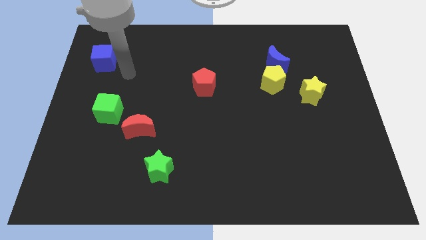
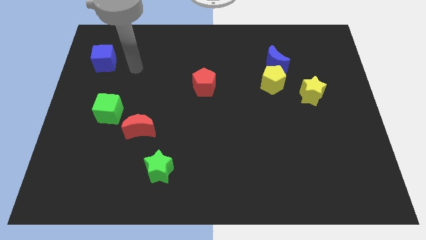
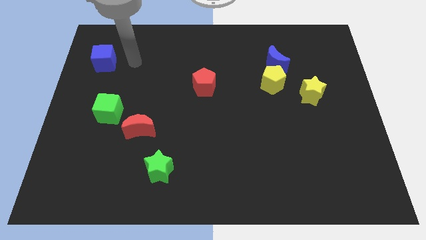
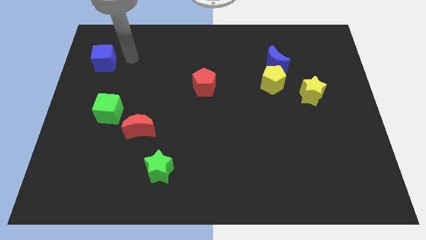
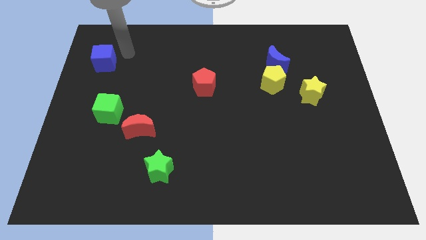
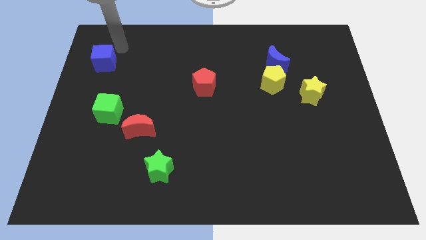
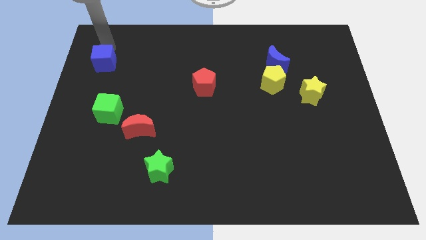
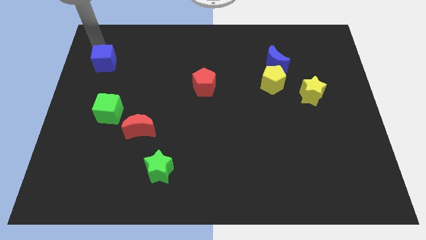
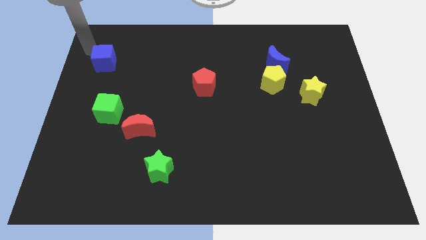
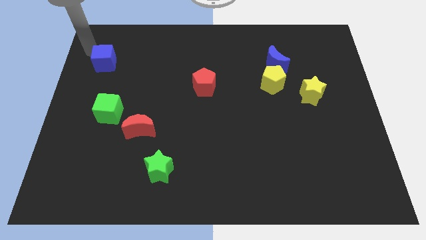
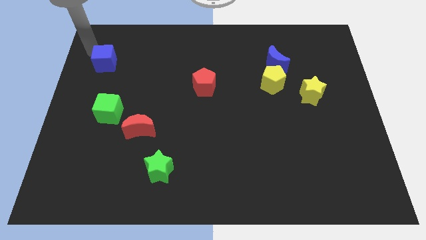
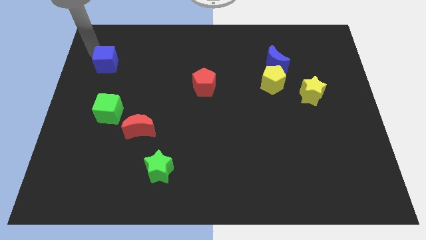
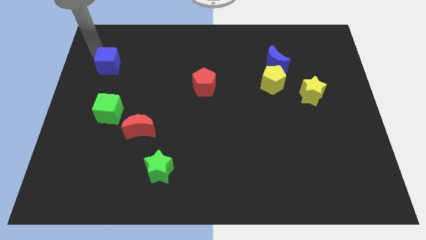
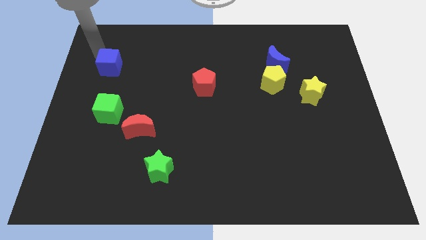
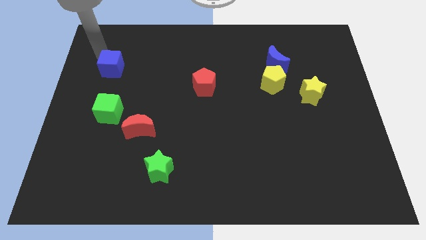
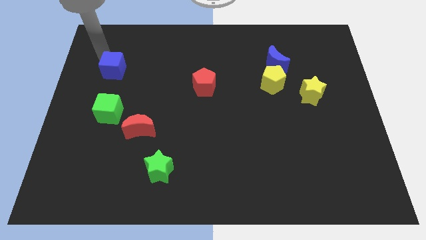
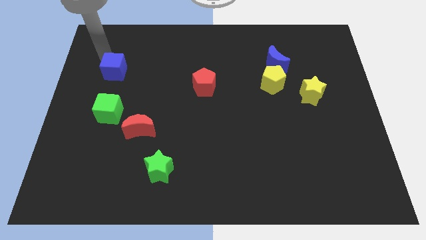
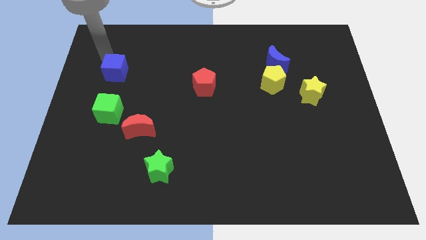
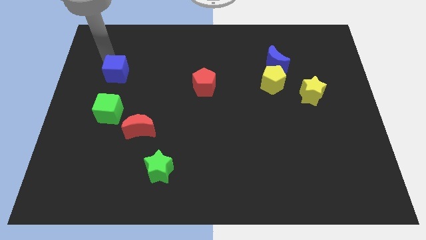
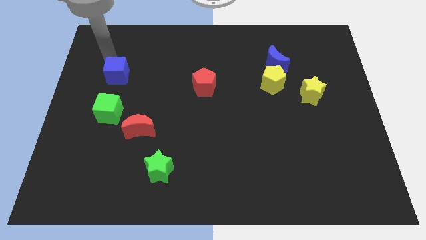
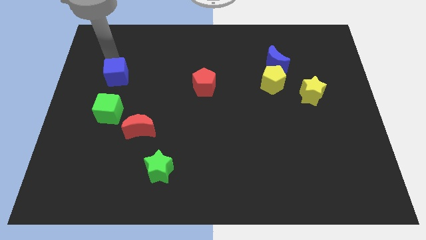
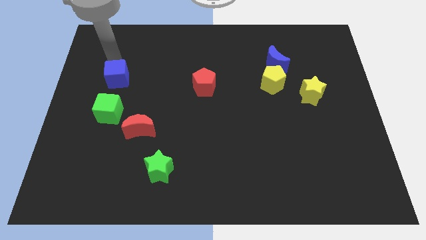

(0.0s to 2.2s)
slightly push the blue cube diagonally down and right

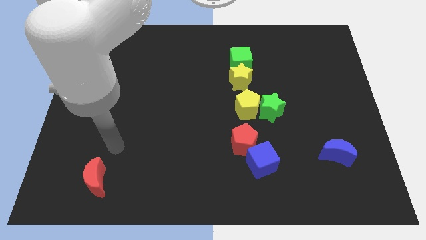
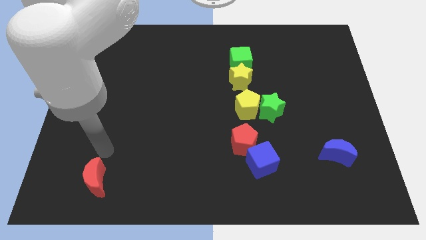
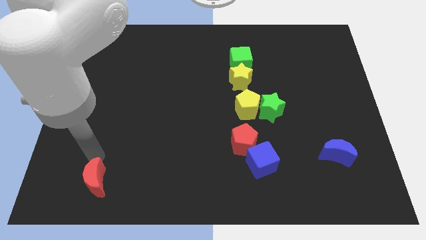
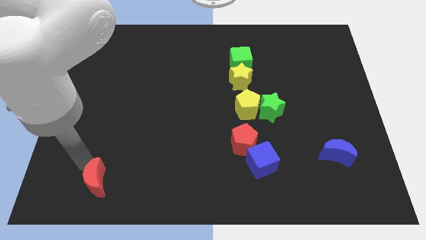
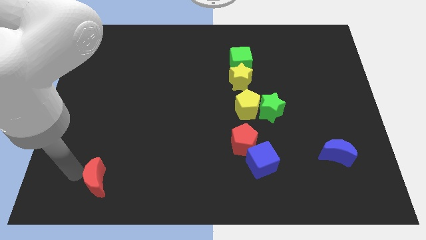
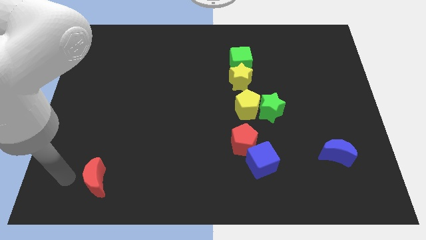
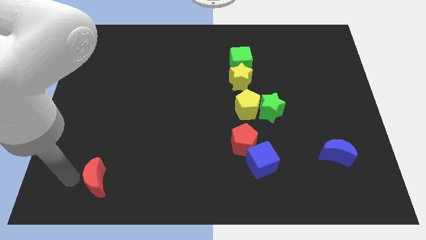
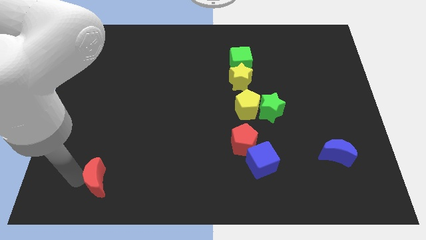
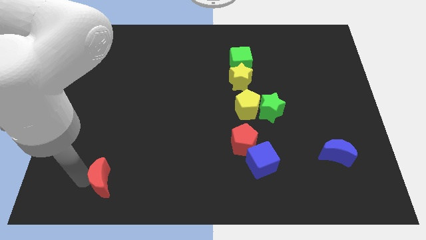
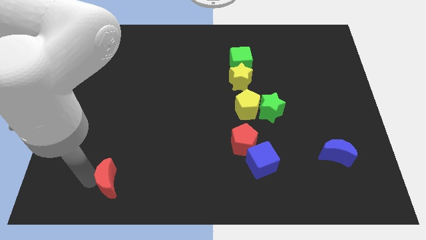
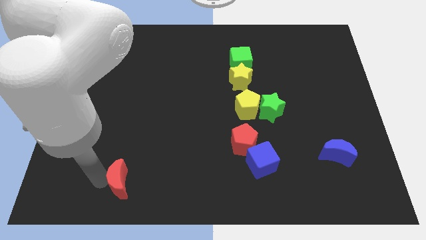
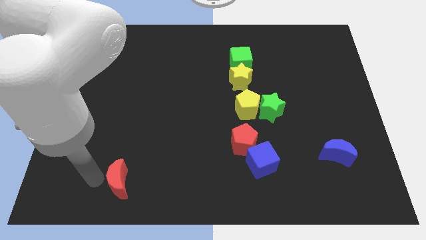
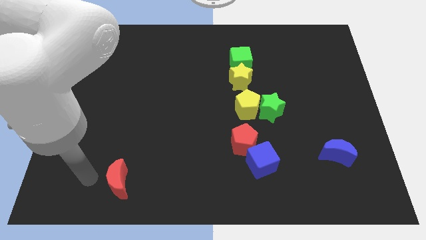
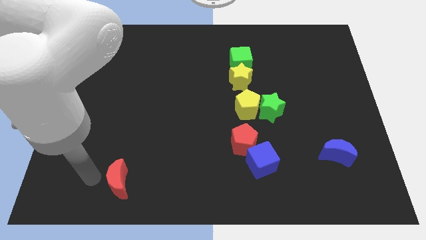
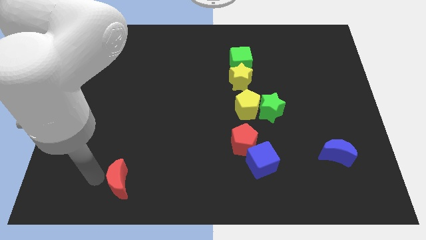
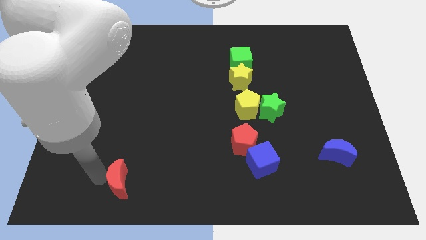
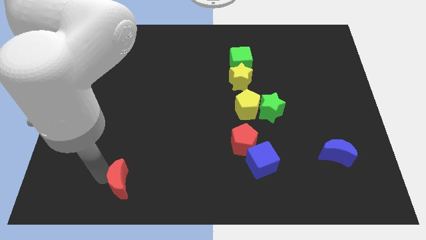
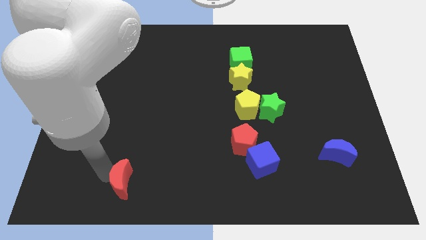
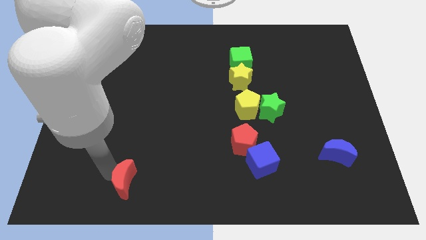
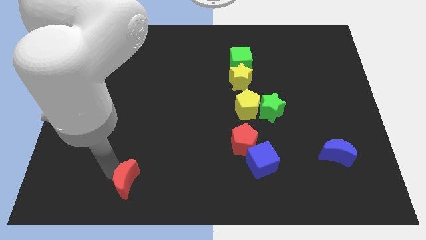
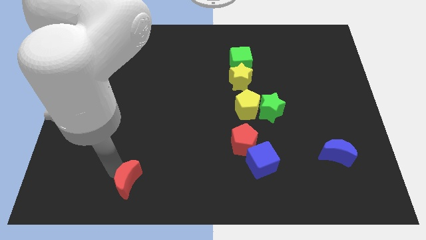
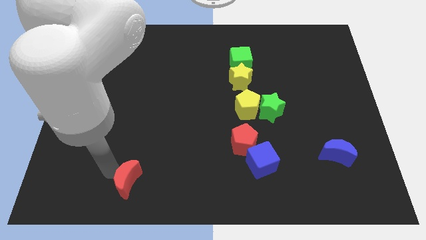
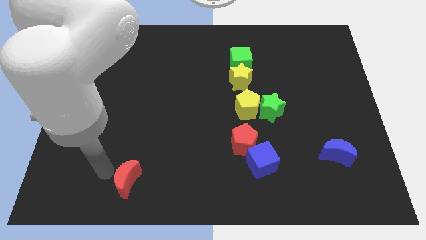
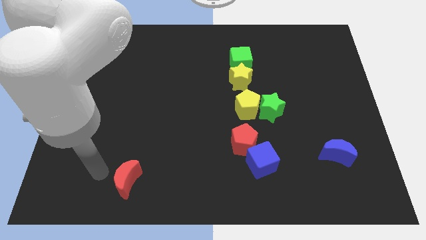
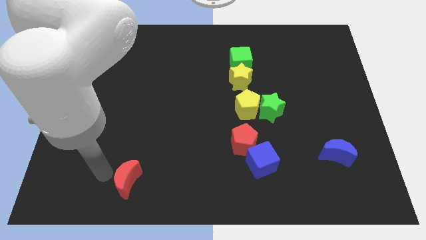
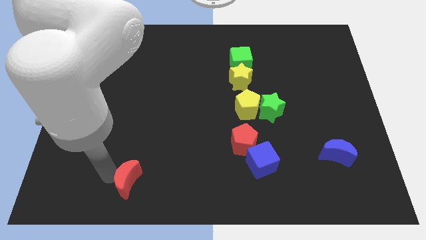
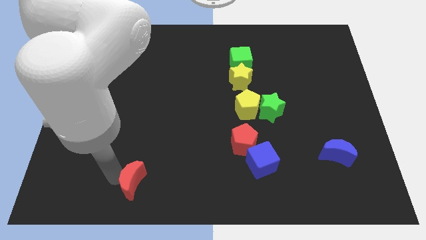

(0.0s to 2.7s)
slide the red moon to the right somewhat

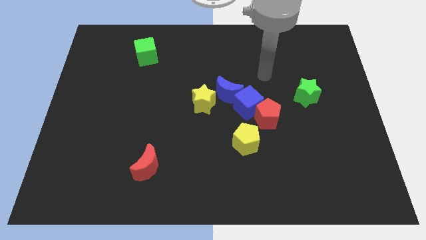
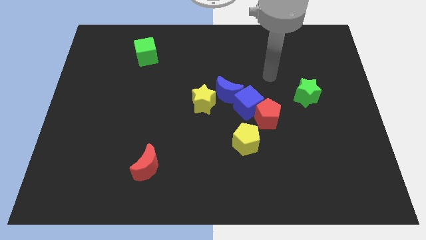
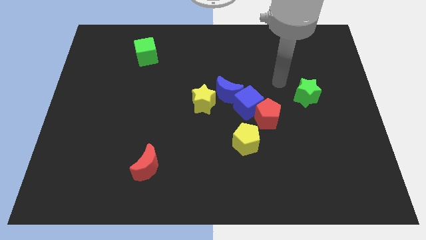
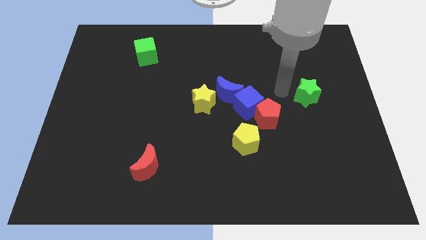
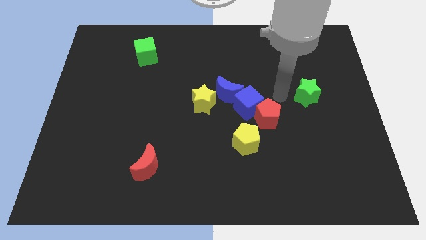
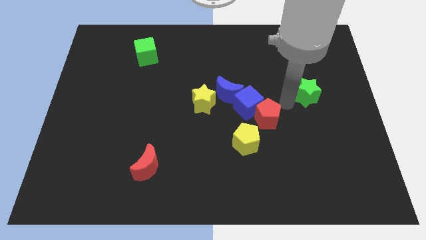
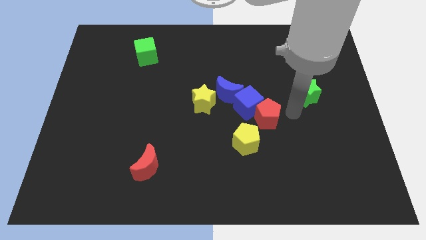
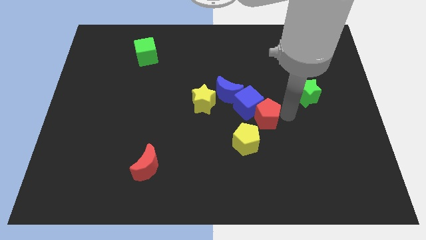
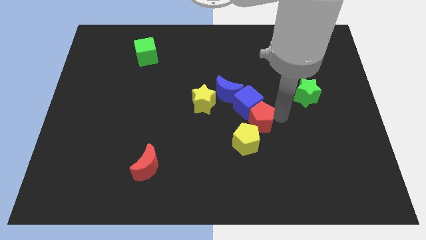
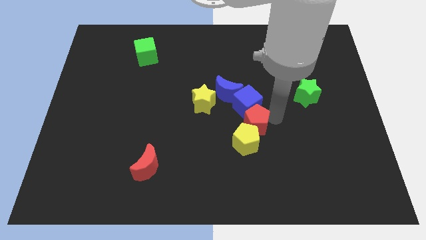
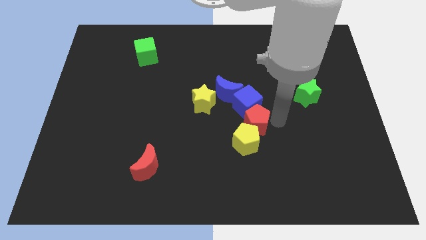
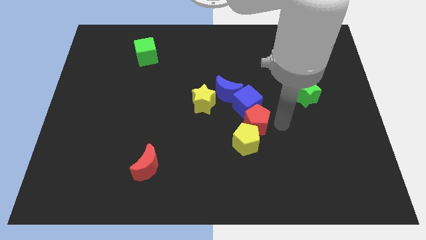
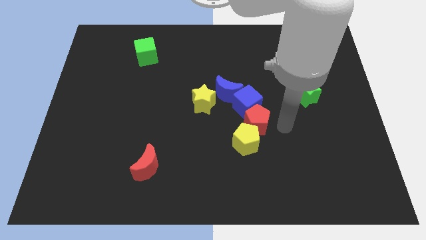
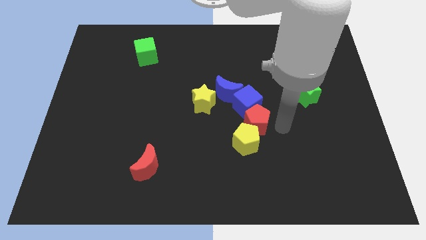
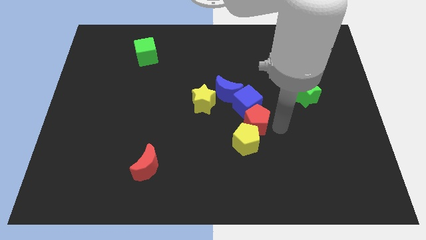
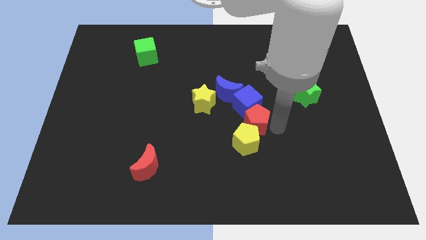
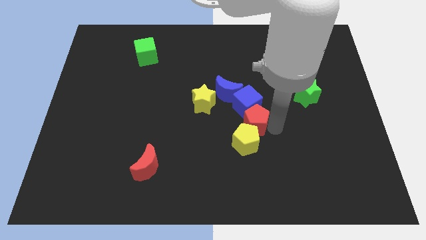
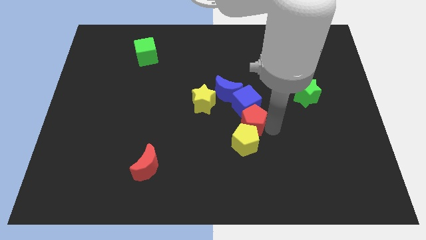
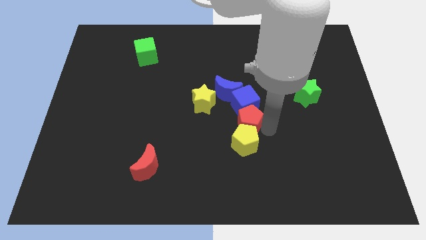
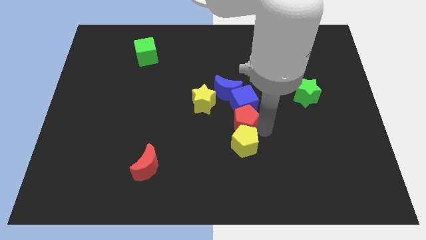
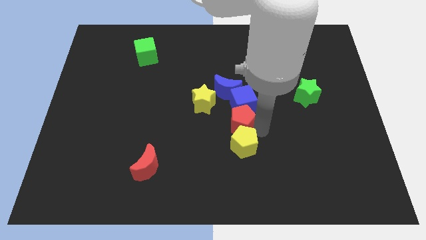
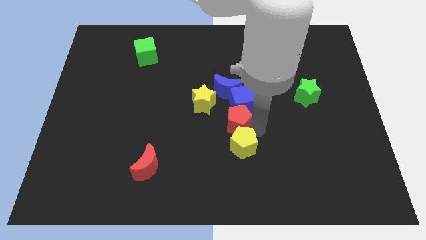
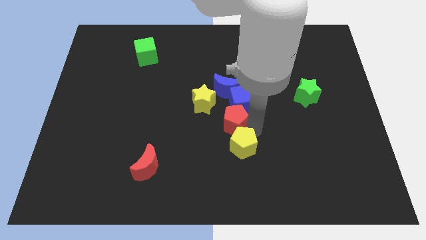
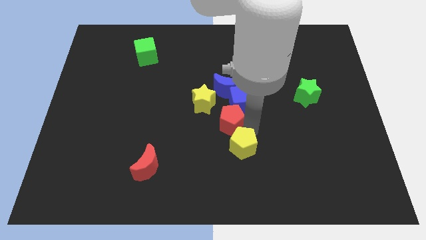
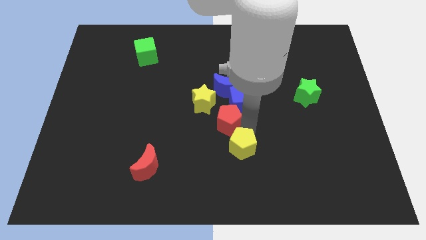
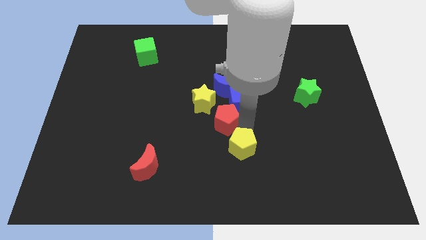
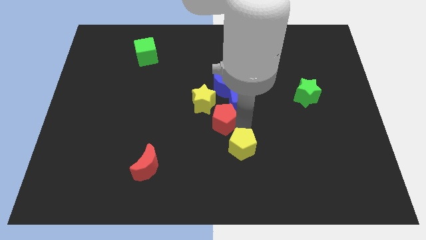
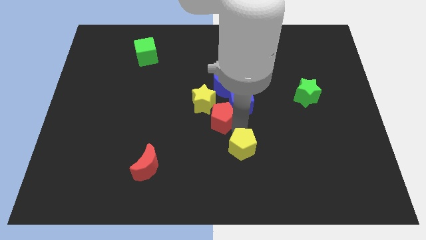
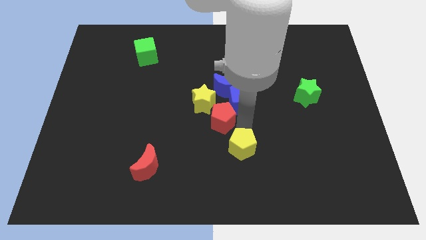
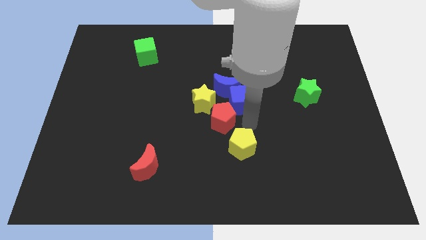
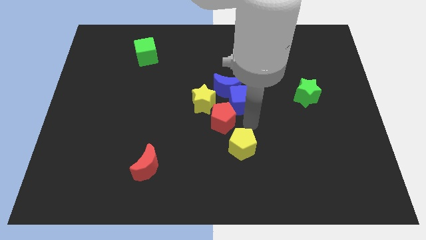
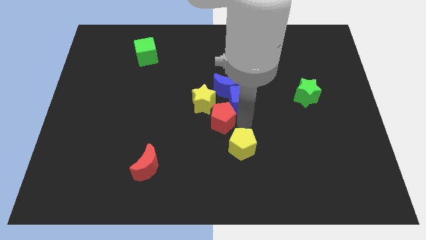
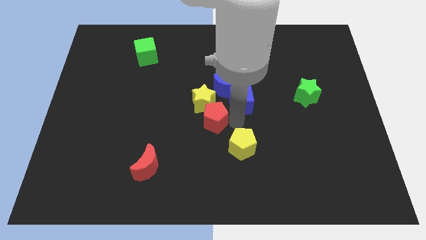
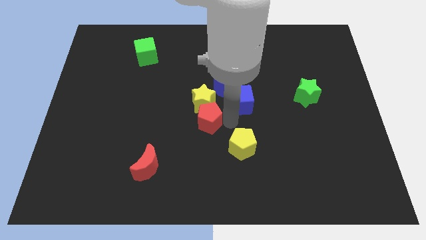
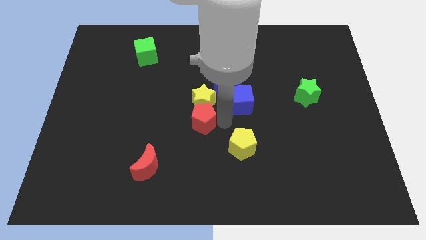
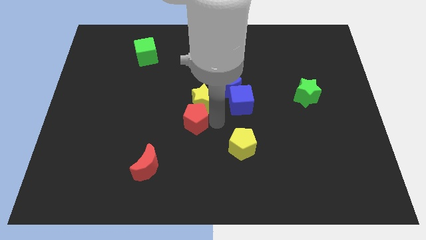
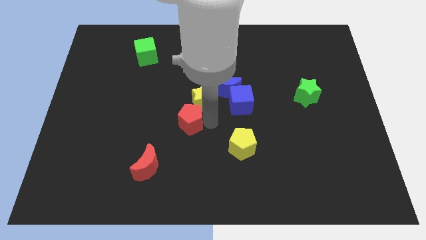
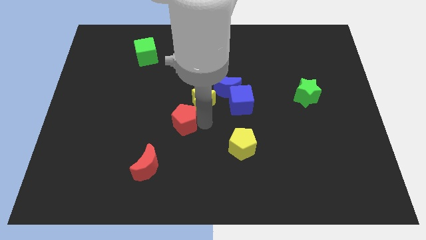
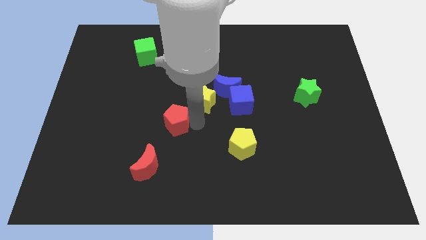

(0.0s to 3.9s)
push the red pentagon left
